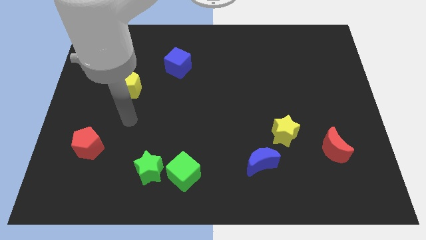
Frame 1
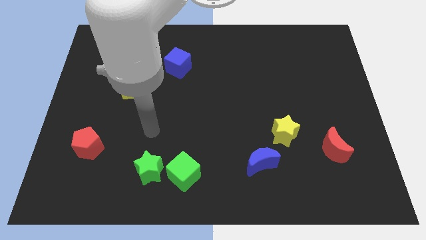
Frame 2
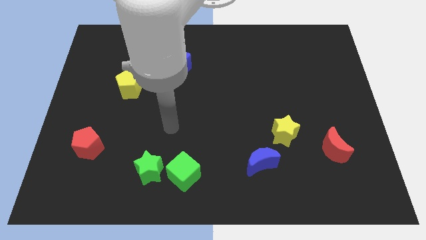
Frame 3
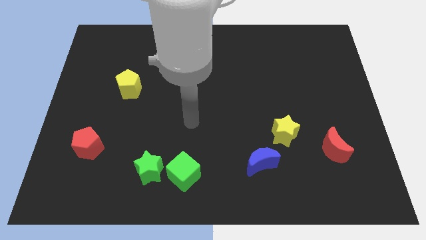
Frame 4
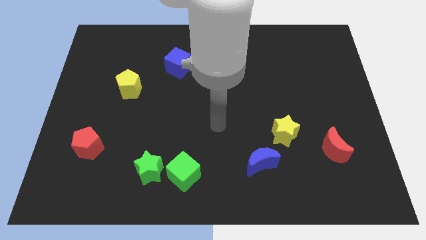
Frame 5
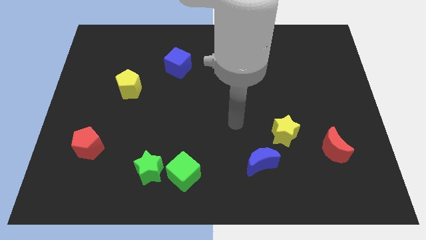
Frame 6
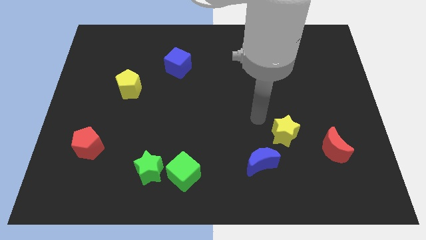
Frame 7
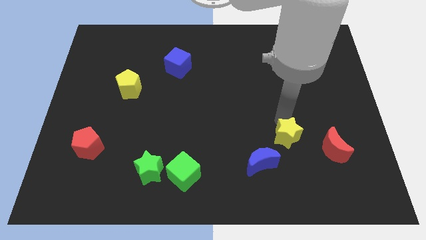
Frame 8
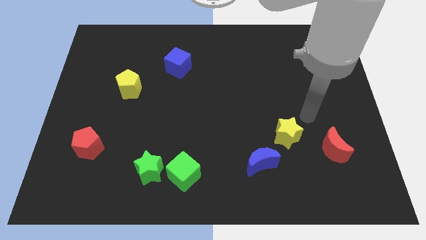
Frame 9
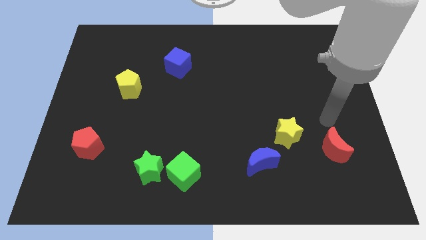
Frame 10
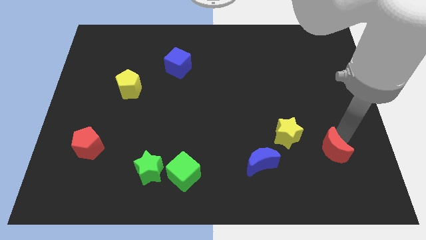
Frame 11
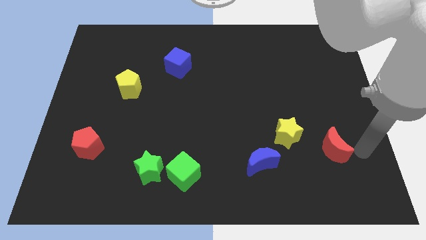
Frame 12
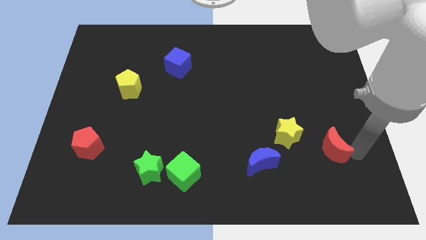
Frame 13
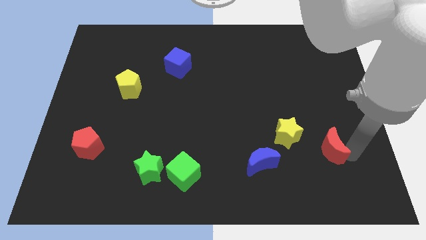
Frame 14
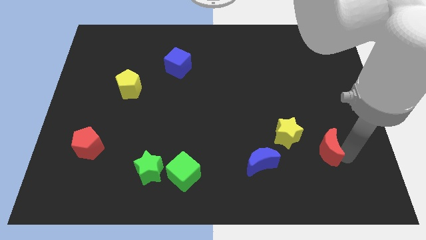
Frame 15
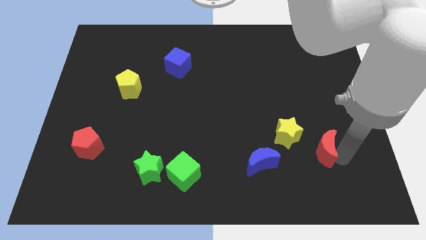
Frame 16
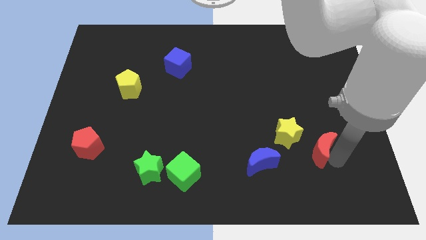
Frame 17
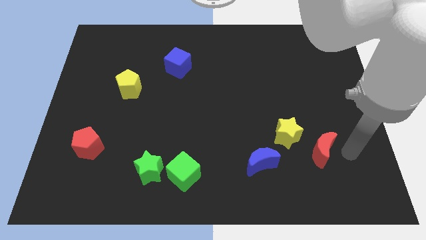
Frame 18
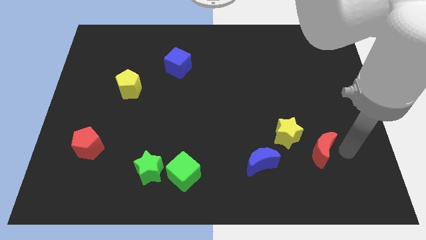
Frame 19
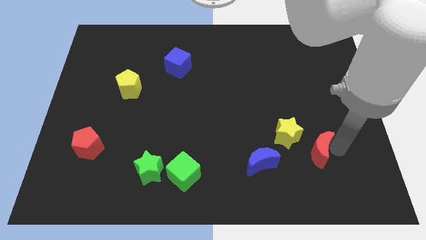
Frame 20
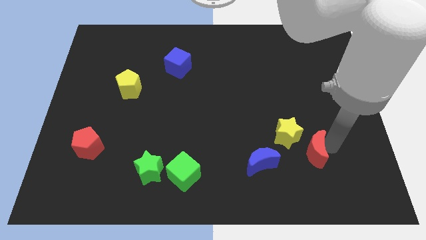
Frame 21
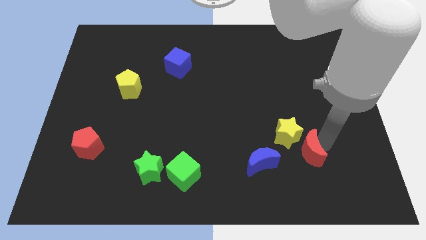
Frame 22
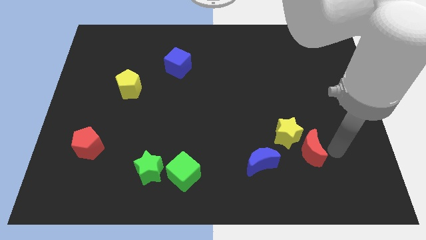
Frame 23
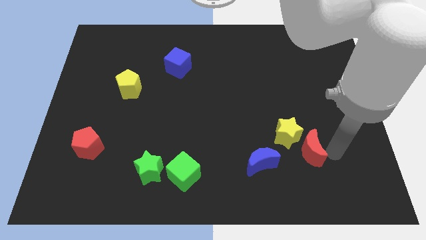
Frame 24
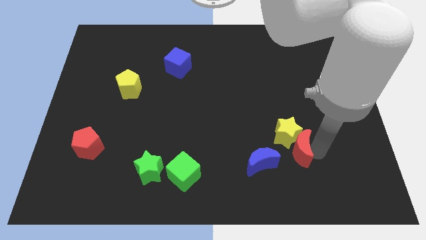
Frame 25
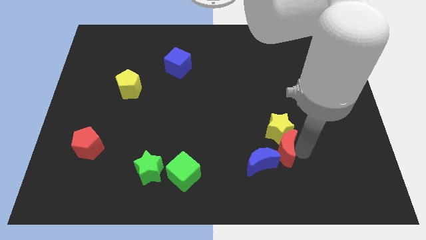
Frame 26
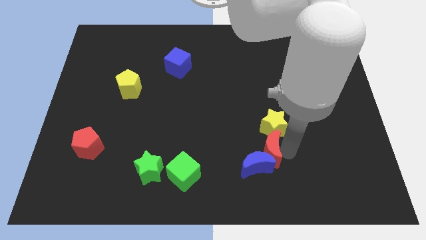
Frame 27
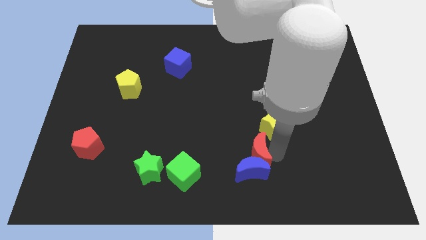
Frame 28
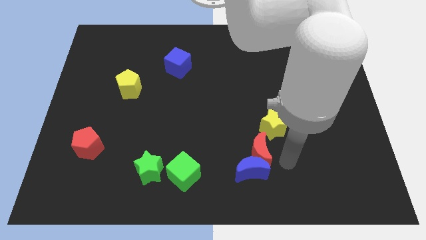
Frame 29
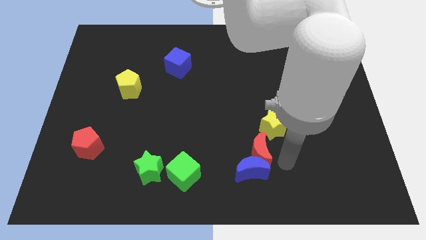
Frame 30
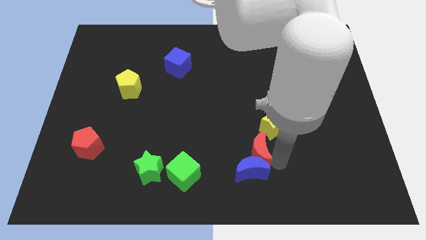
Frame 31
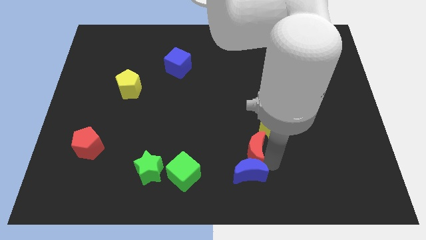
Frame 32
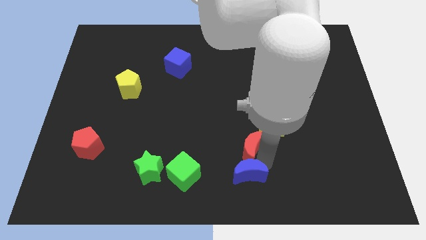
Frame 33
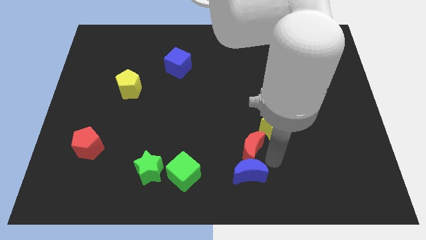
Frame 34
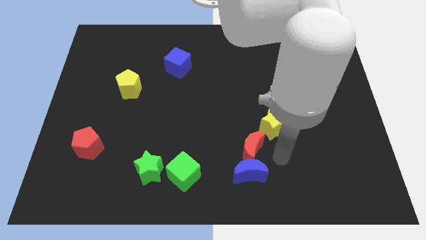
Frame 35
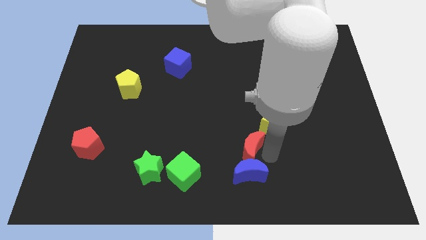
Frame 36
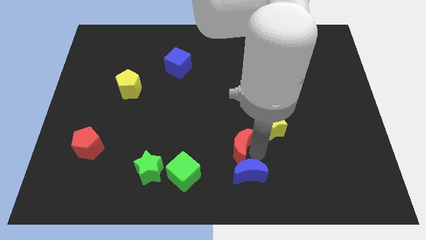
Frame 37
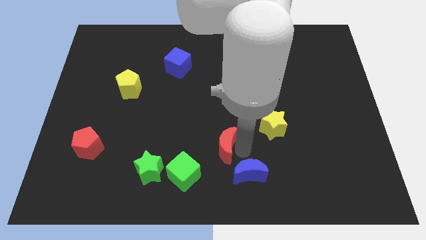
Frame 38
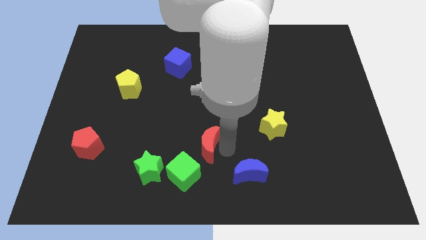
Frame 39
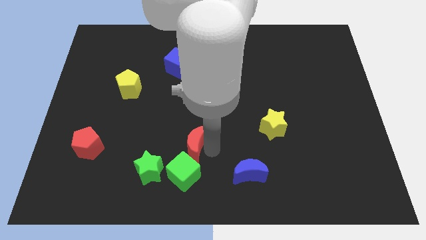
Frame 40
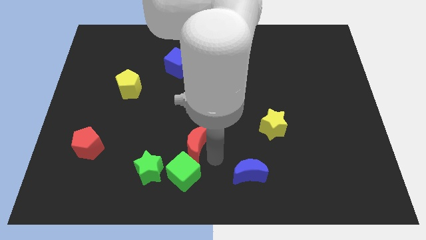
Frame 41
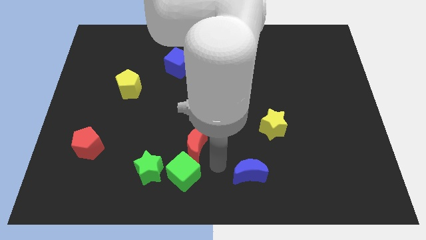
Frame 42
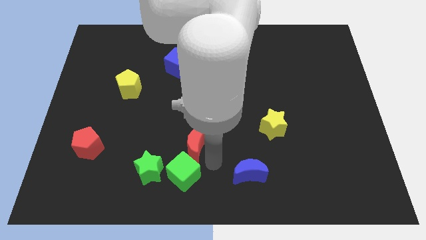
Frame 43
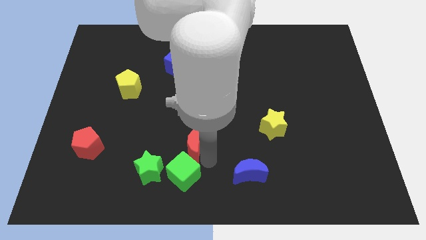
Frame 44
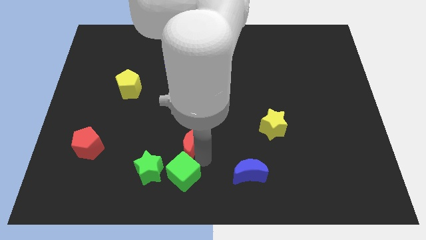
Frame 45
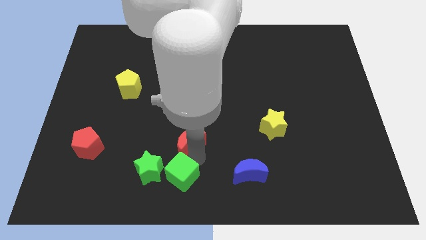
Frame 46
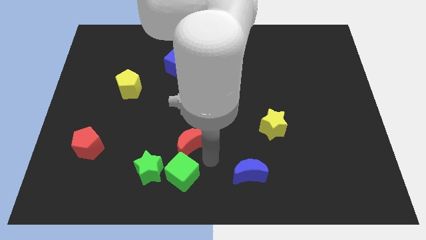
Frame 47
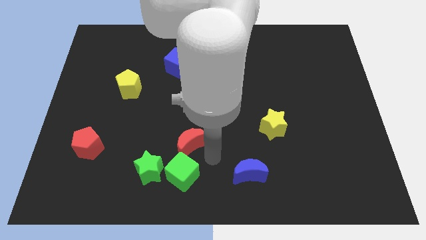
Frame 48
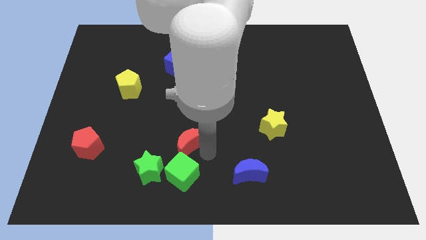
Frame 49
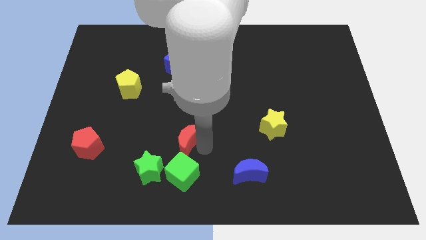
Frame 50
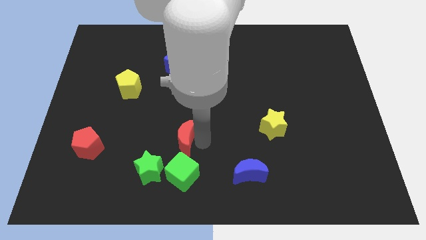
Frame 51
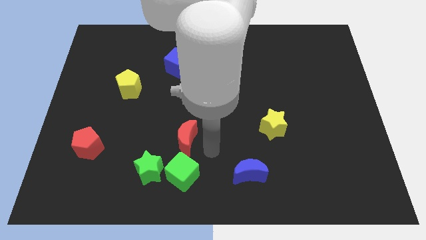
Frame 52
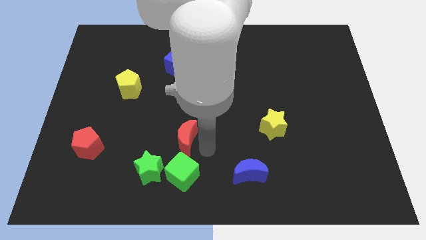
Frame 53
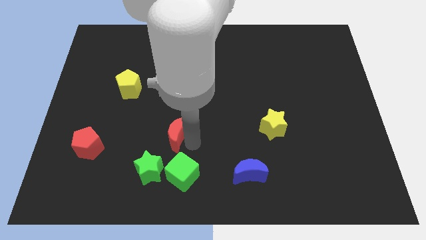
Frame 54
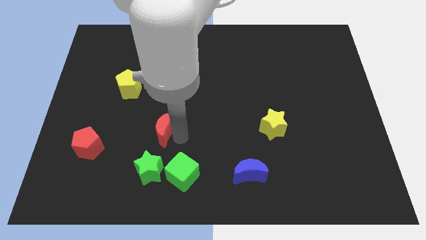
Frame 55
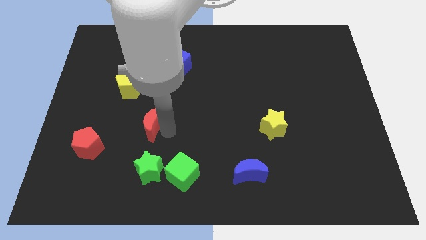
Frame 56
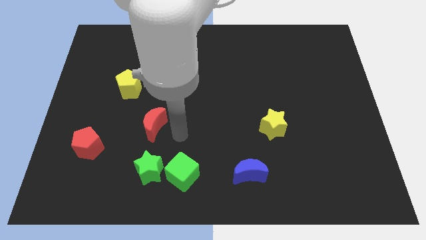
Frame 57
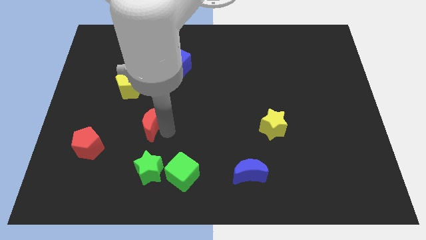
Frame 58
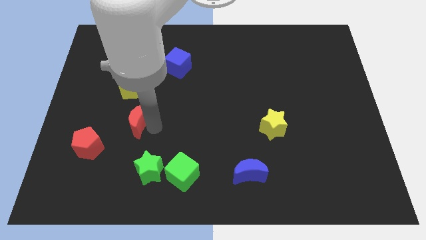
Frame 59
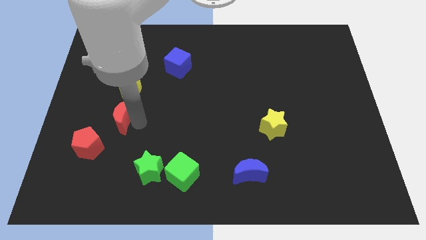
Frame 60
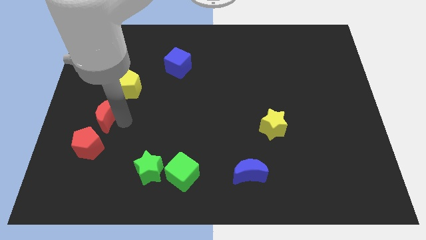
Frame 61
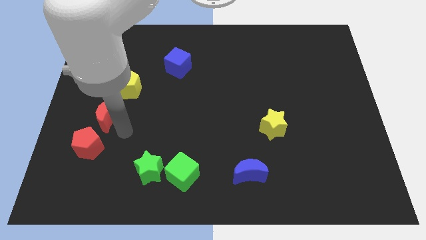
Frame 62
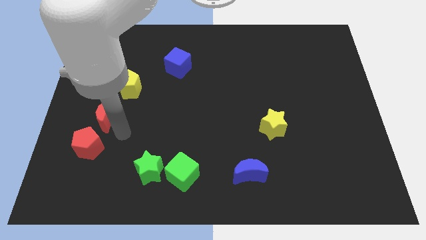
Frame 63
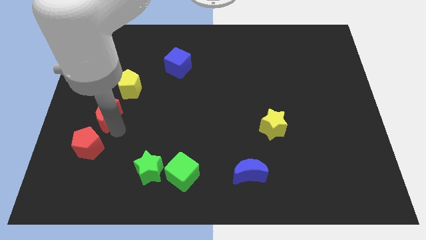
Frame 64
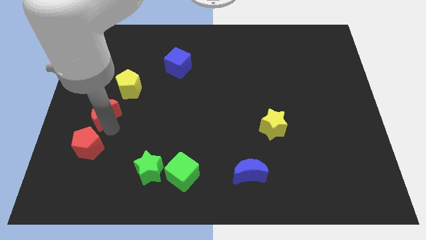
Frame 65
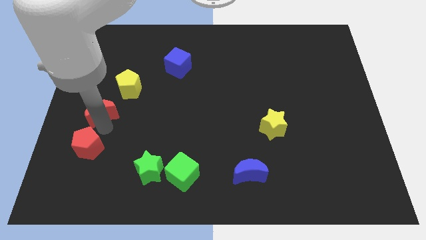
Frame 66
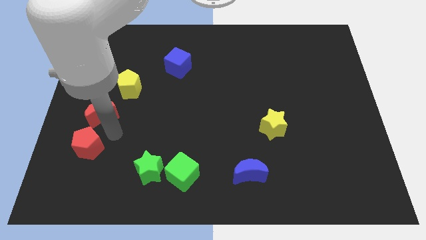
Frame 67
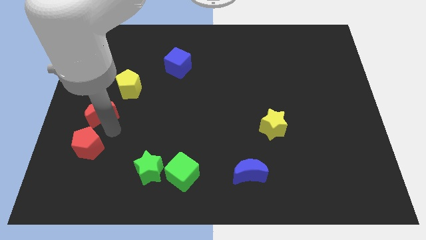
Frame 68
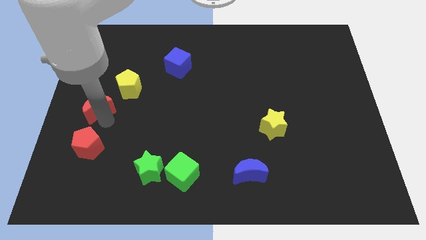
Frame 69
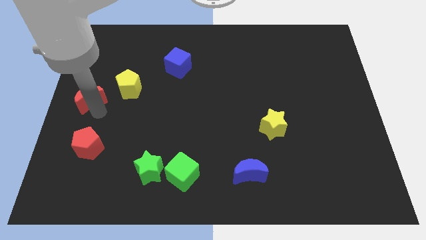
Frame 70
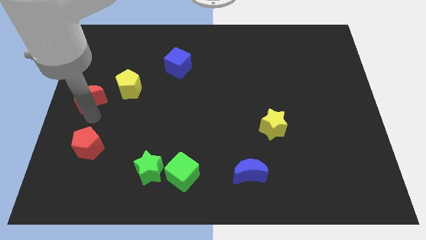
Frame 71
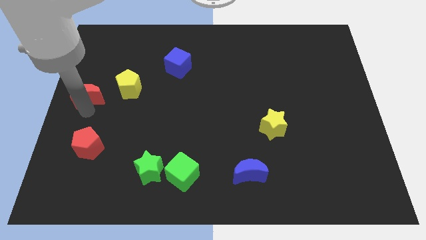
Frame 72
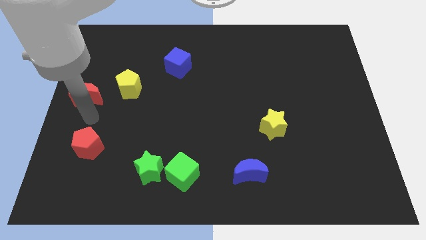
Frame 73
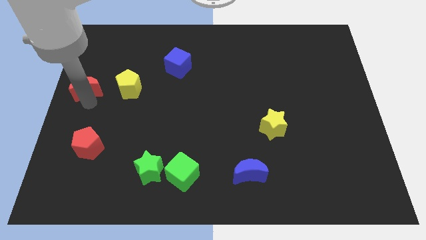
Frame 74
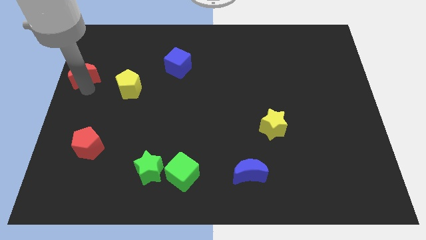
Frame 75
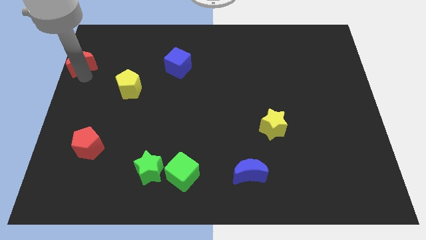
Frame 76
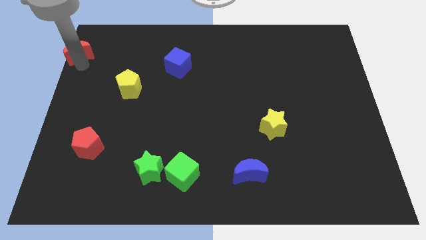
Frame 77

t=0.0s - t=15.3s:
slide the red moon to the top left of the board
